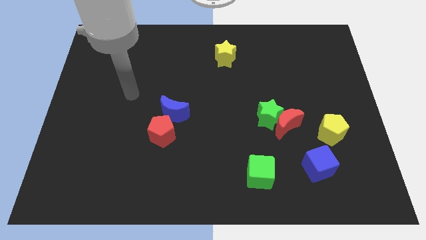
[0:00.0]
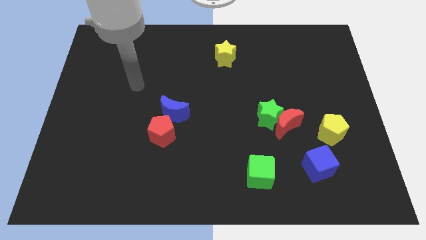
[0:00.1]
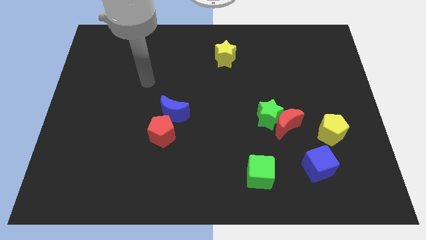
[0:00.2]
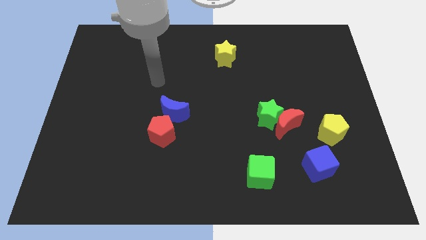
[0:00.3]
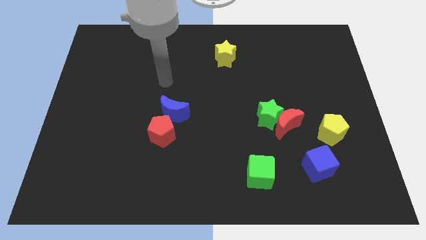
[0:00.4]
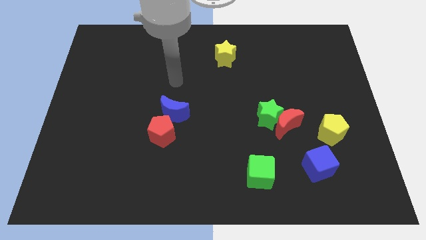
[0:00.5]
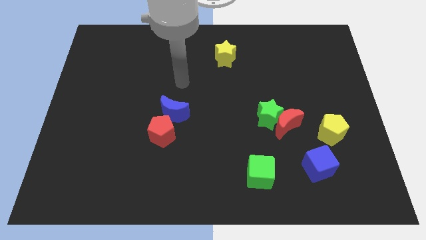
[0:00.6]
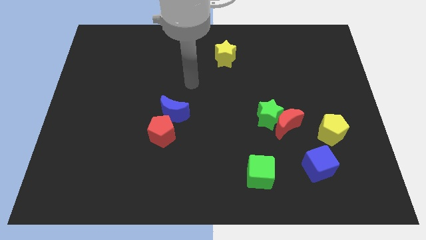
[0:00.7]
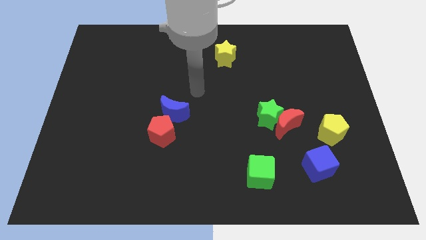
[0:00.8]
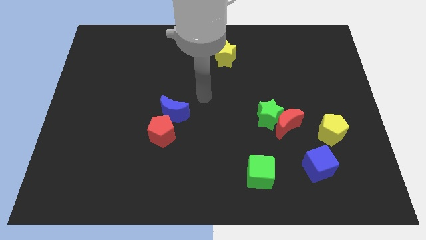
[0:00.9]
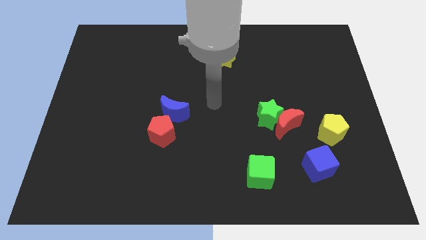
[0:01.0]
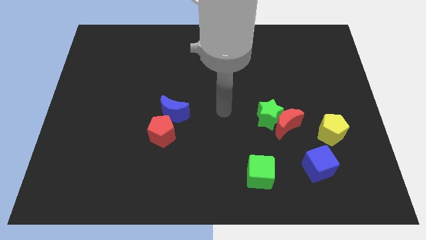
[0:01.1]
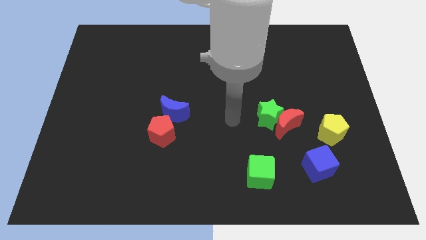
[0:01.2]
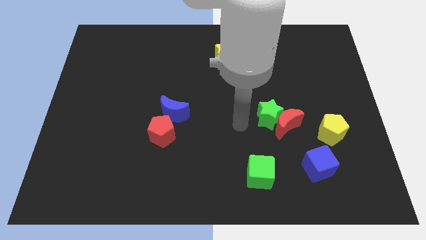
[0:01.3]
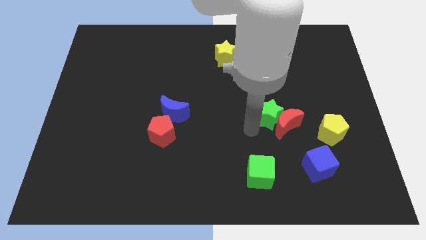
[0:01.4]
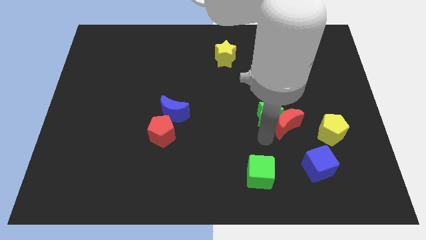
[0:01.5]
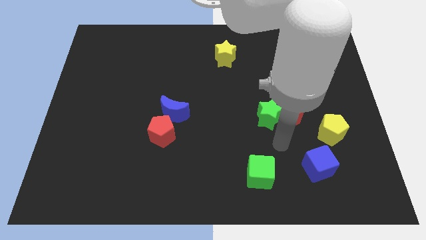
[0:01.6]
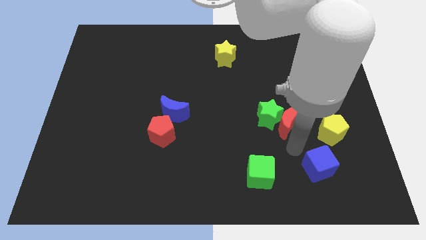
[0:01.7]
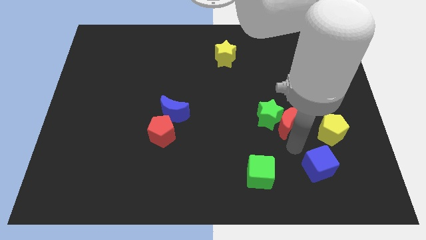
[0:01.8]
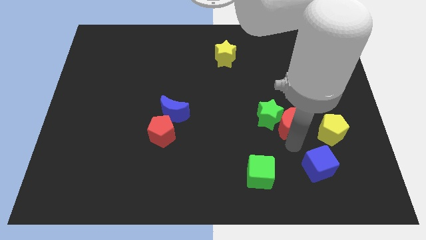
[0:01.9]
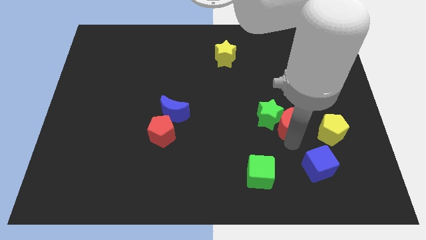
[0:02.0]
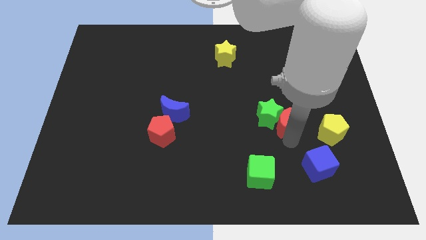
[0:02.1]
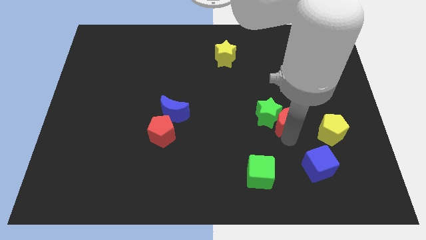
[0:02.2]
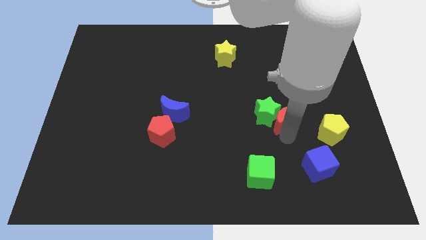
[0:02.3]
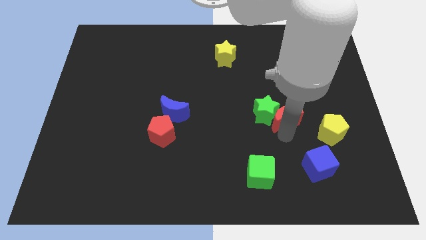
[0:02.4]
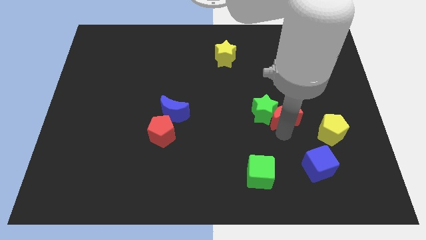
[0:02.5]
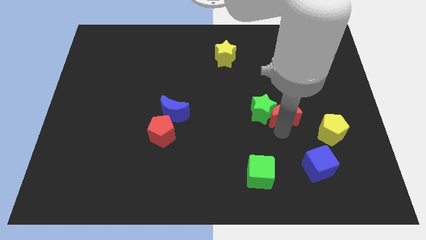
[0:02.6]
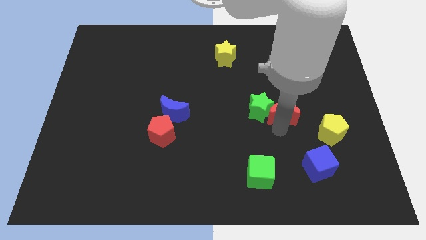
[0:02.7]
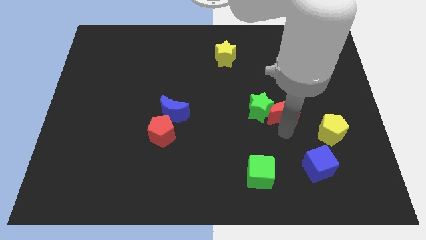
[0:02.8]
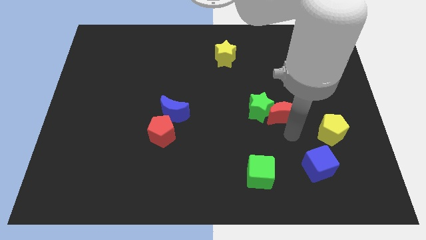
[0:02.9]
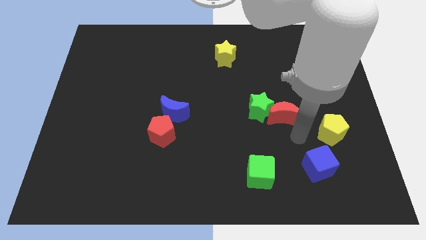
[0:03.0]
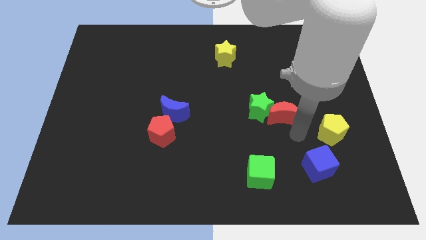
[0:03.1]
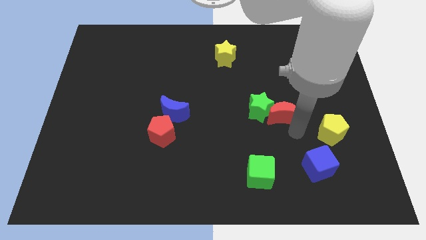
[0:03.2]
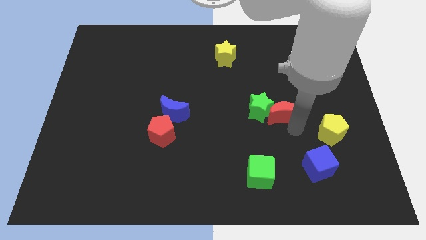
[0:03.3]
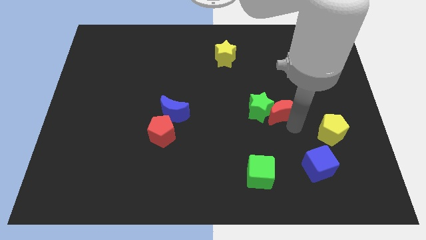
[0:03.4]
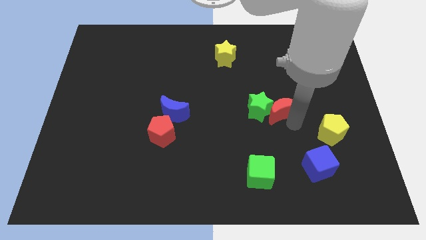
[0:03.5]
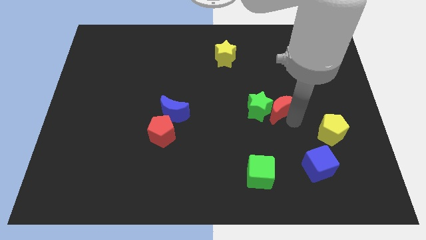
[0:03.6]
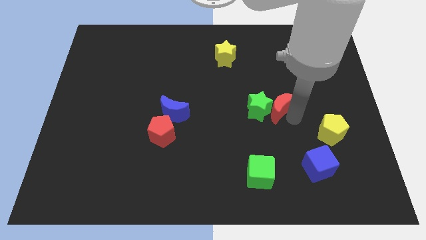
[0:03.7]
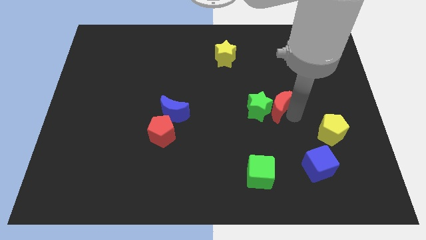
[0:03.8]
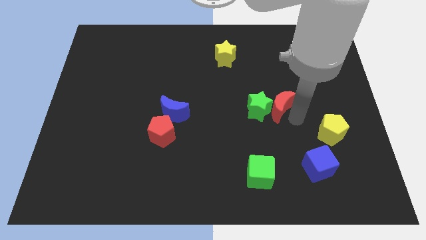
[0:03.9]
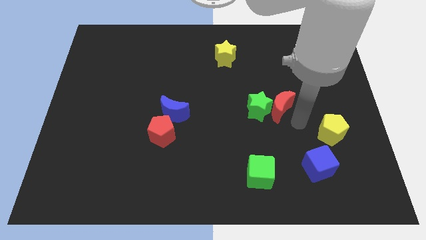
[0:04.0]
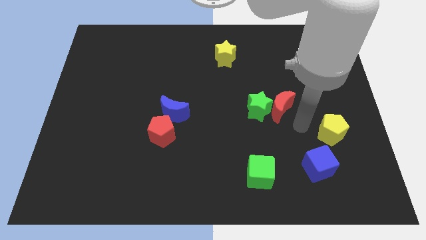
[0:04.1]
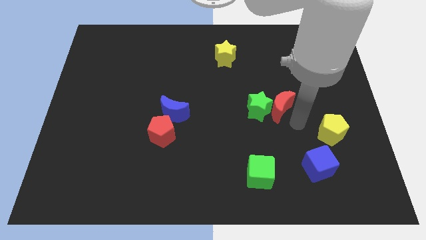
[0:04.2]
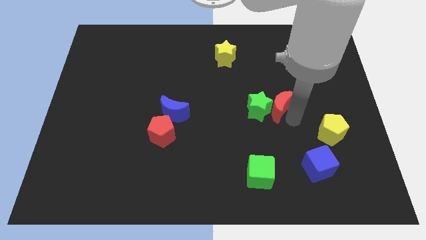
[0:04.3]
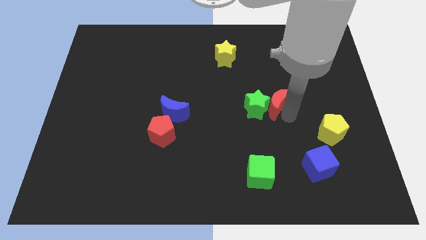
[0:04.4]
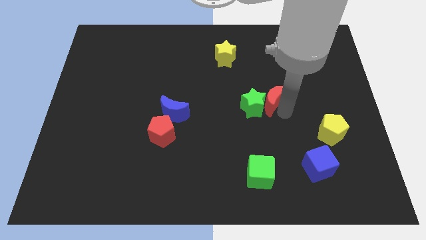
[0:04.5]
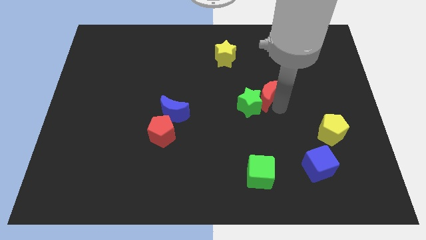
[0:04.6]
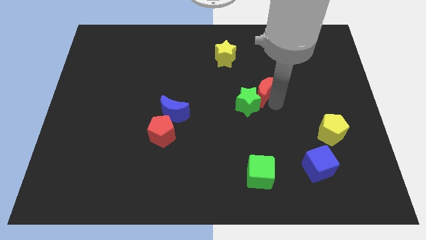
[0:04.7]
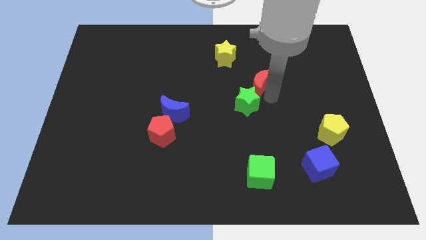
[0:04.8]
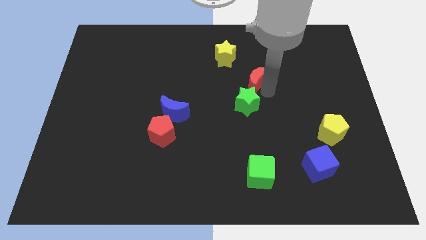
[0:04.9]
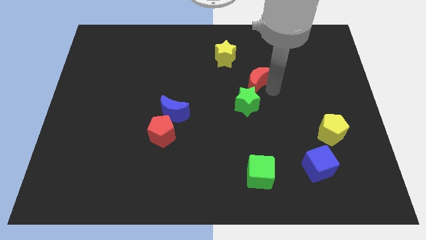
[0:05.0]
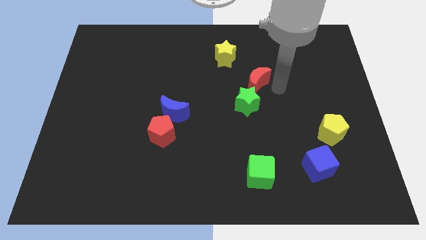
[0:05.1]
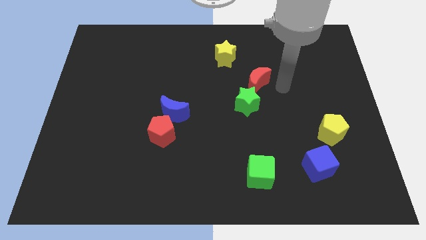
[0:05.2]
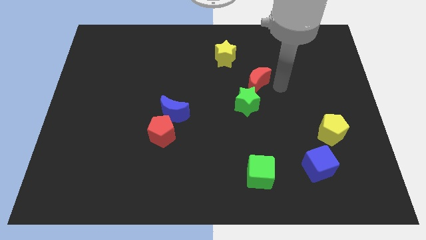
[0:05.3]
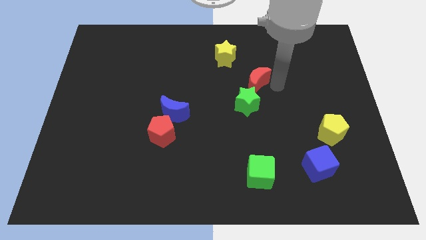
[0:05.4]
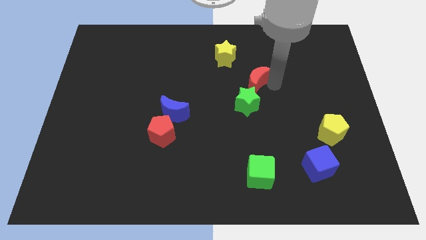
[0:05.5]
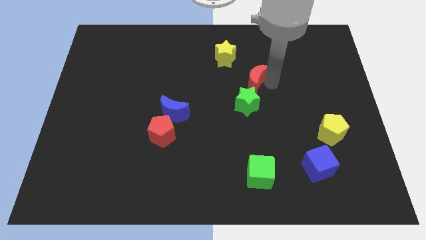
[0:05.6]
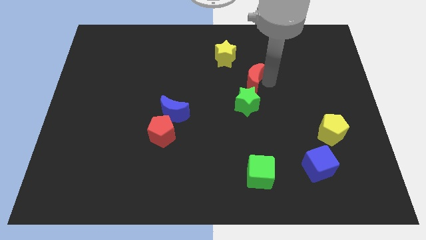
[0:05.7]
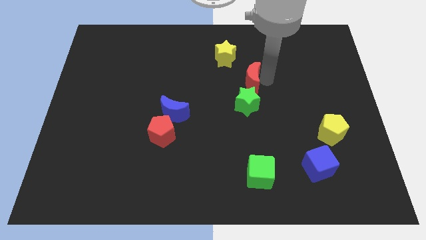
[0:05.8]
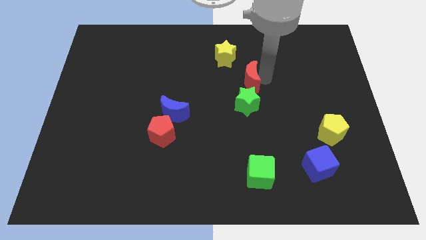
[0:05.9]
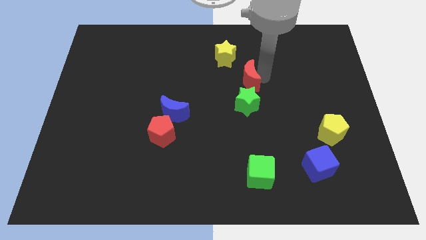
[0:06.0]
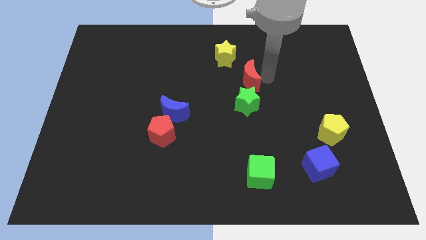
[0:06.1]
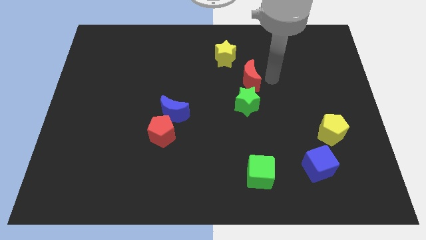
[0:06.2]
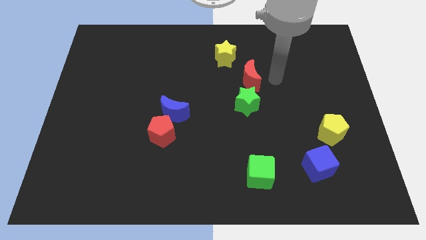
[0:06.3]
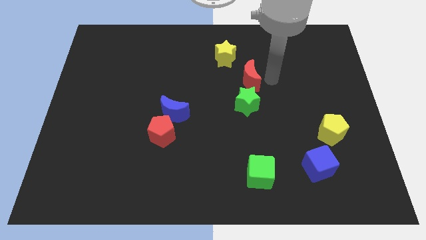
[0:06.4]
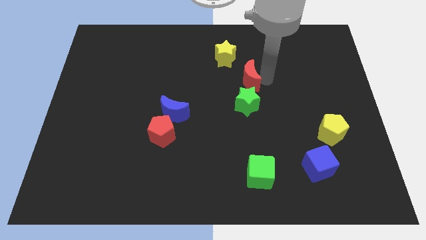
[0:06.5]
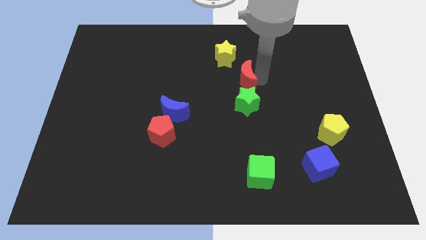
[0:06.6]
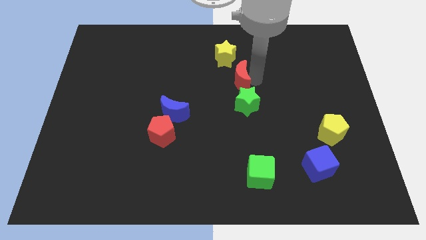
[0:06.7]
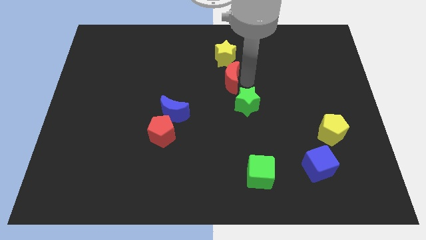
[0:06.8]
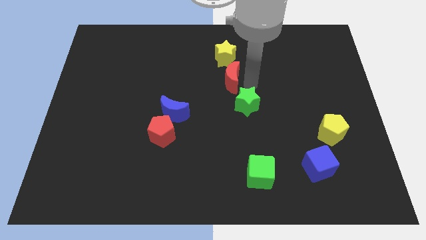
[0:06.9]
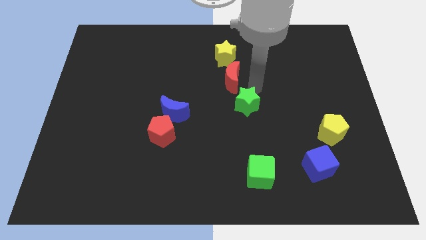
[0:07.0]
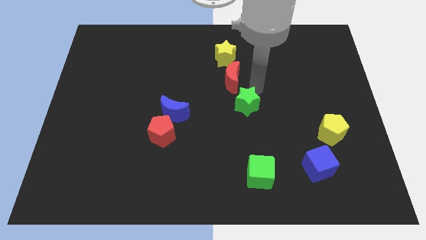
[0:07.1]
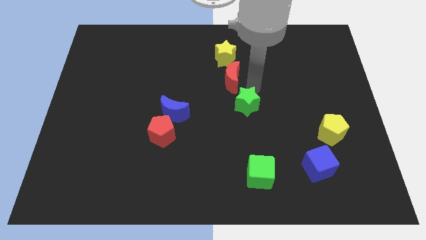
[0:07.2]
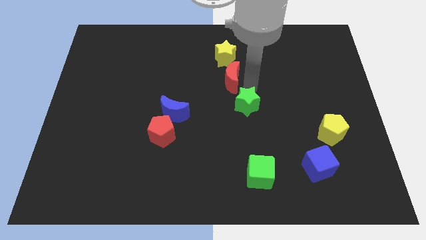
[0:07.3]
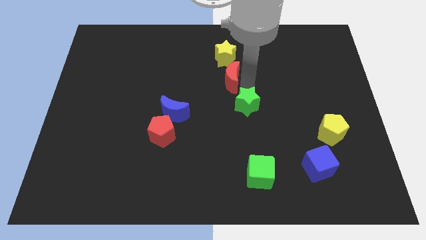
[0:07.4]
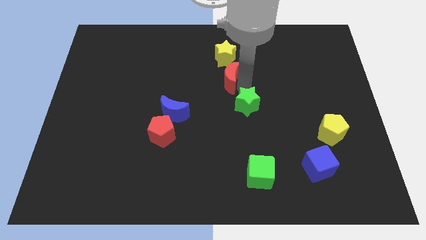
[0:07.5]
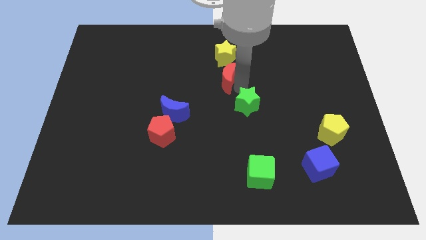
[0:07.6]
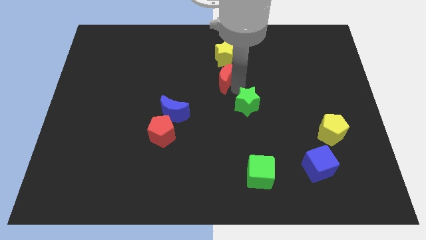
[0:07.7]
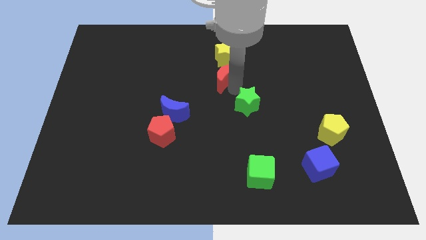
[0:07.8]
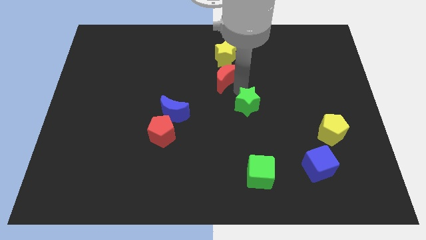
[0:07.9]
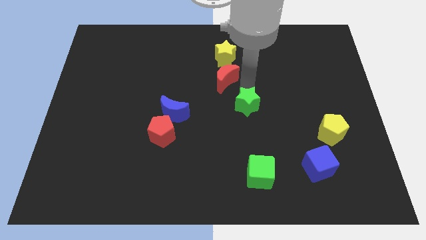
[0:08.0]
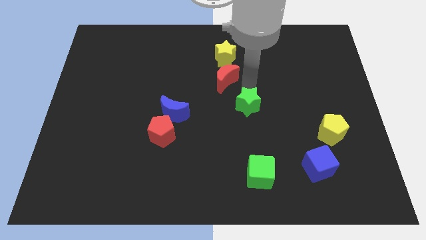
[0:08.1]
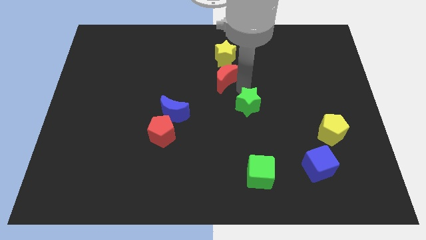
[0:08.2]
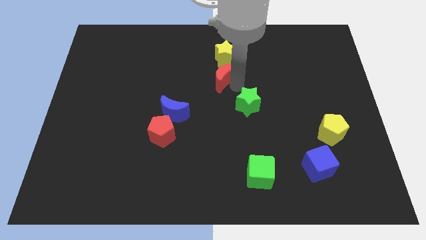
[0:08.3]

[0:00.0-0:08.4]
move the red moon to the bottom left of the yellow star
